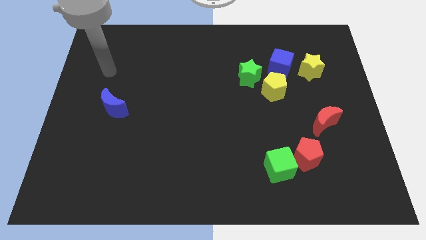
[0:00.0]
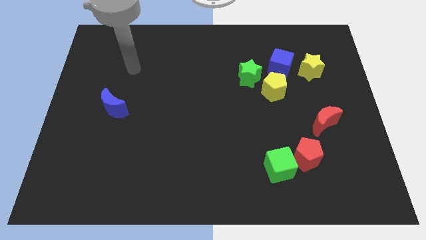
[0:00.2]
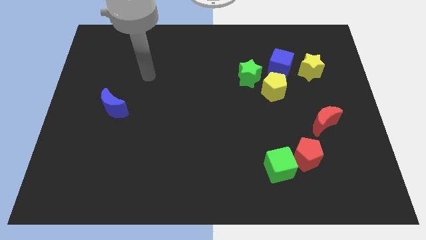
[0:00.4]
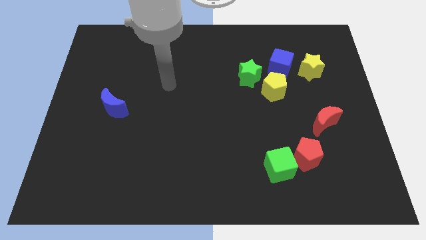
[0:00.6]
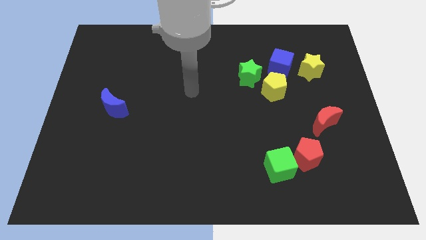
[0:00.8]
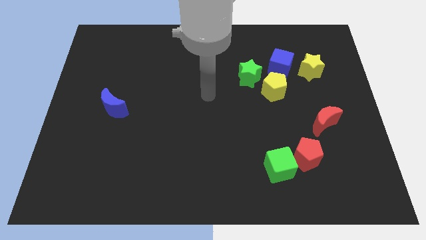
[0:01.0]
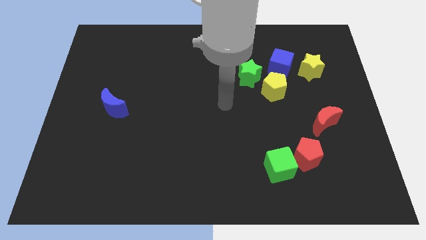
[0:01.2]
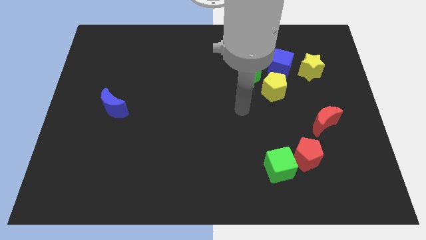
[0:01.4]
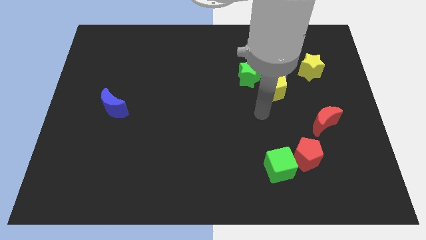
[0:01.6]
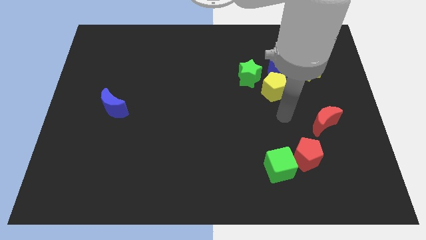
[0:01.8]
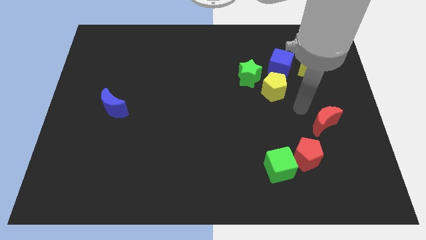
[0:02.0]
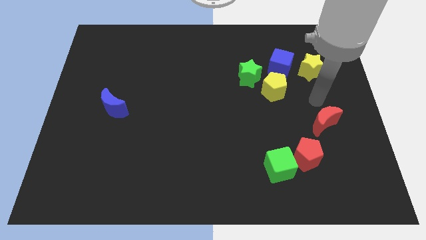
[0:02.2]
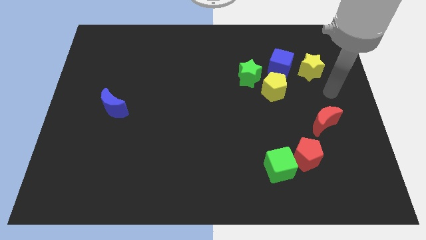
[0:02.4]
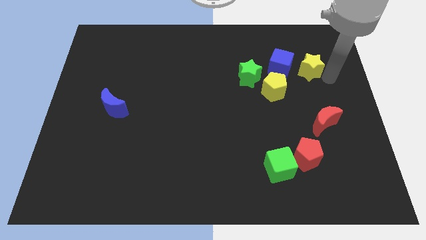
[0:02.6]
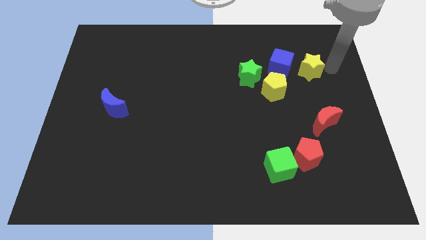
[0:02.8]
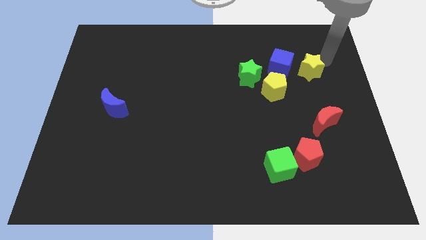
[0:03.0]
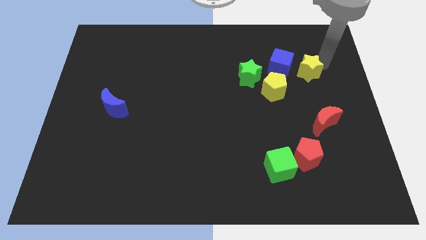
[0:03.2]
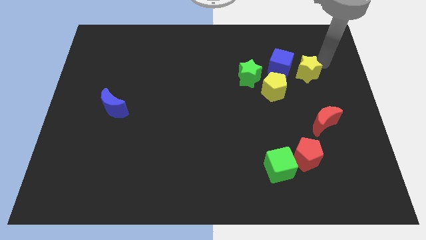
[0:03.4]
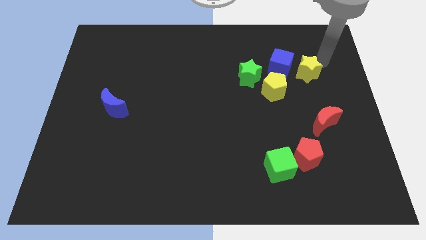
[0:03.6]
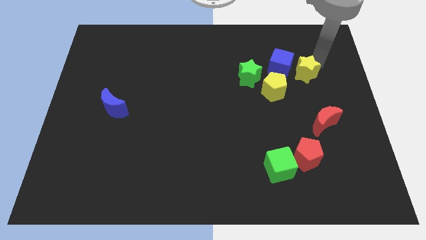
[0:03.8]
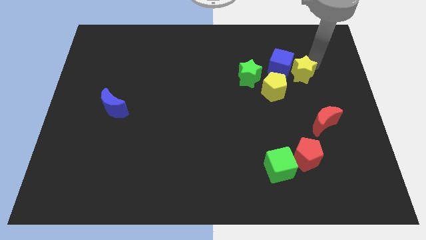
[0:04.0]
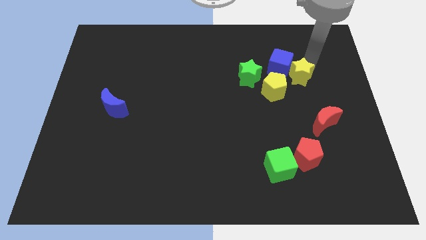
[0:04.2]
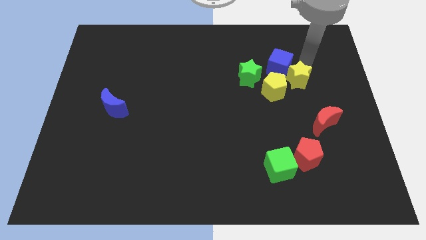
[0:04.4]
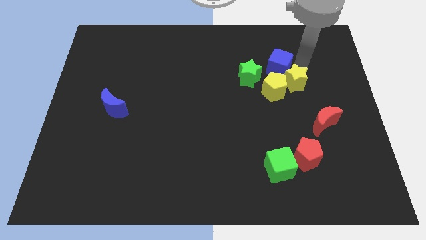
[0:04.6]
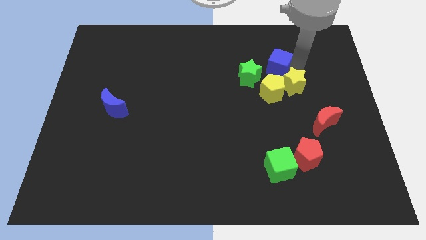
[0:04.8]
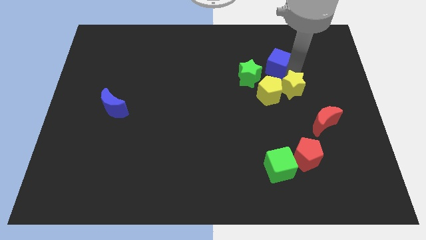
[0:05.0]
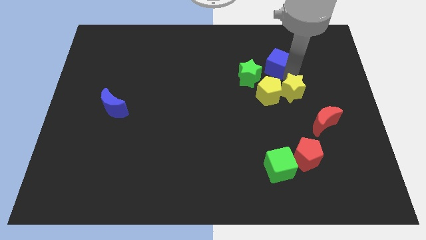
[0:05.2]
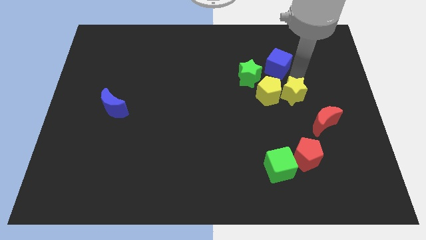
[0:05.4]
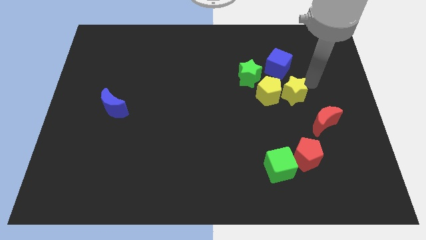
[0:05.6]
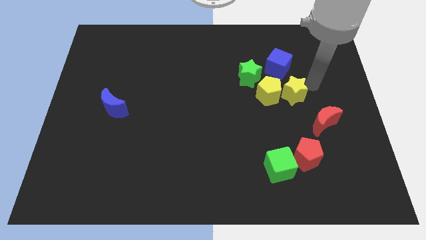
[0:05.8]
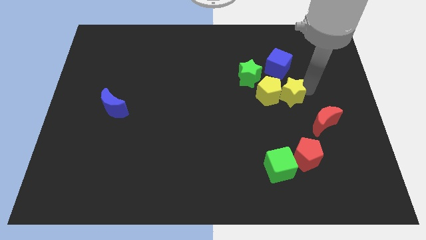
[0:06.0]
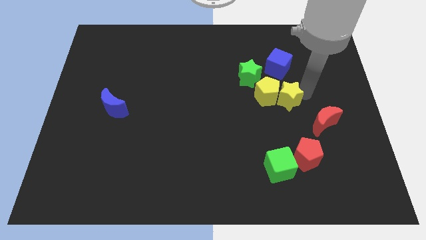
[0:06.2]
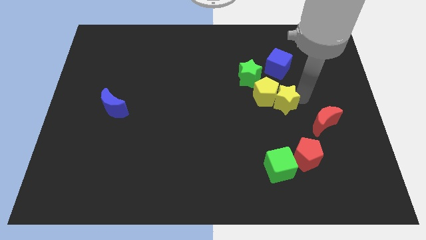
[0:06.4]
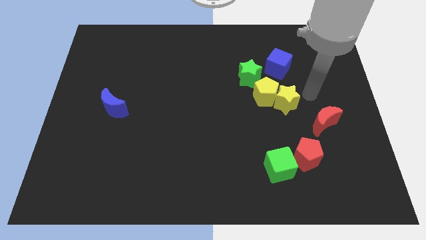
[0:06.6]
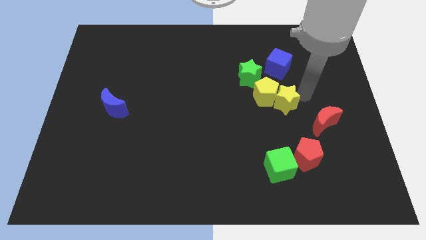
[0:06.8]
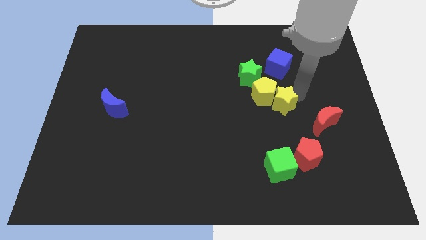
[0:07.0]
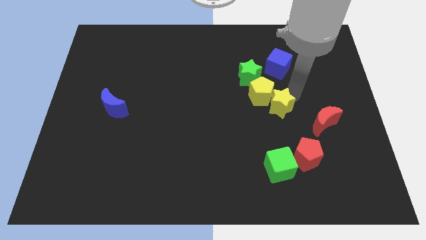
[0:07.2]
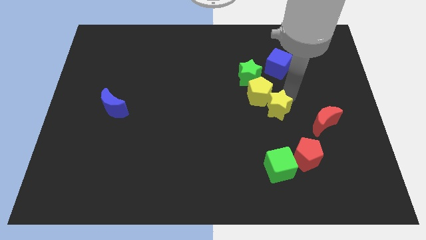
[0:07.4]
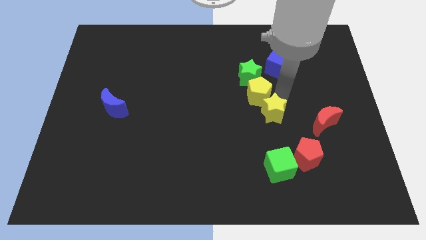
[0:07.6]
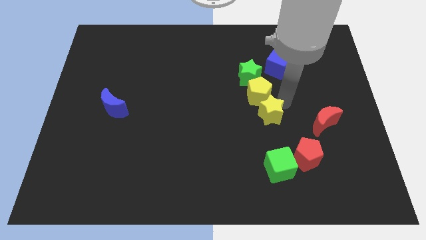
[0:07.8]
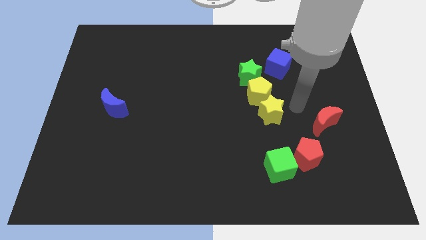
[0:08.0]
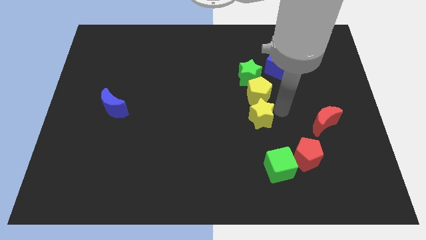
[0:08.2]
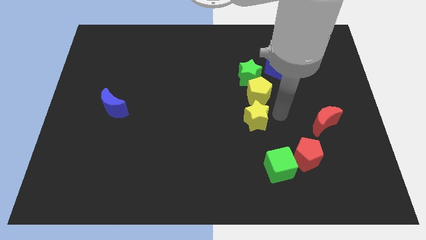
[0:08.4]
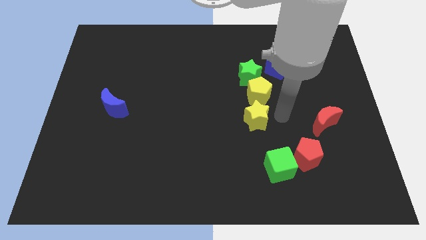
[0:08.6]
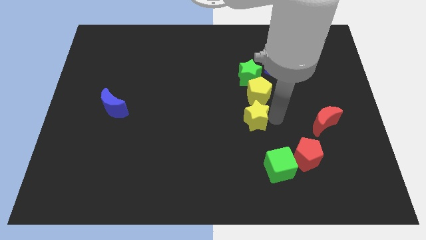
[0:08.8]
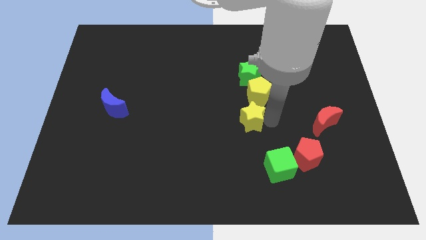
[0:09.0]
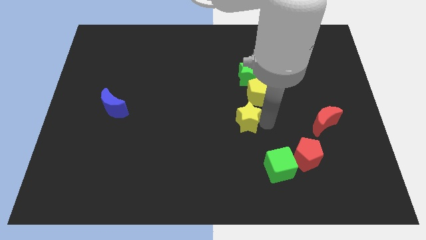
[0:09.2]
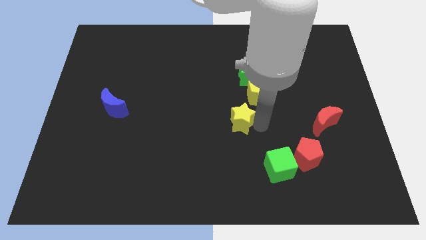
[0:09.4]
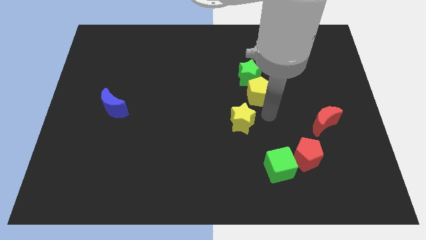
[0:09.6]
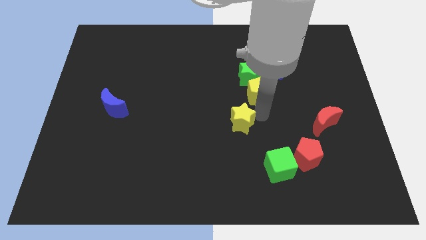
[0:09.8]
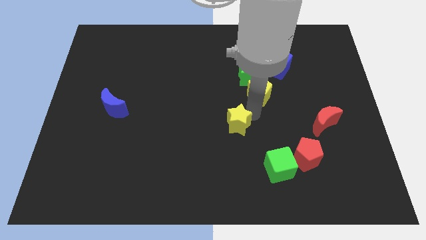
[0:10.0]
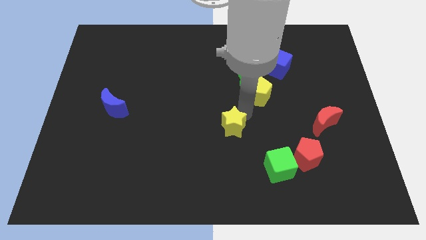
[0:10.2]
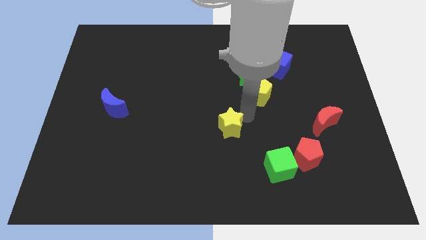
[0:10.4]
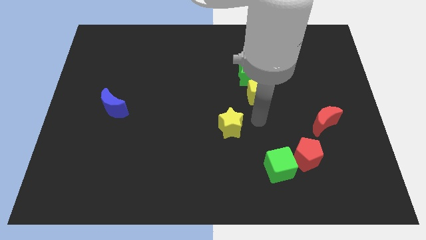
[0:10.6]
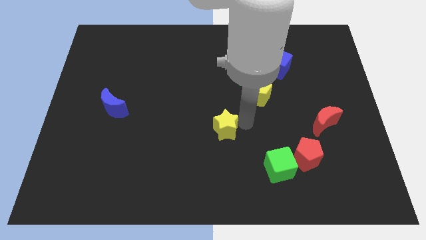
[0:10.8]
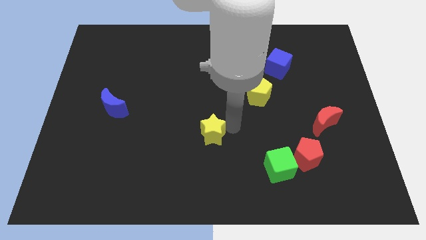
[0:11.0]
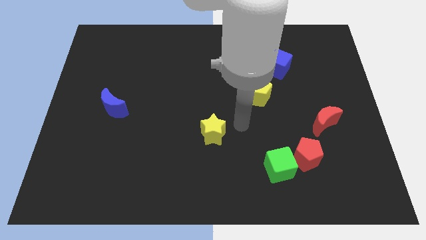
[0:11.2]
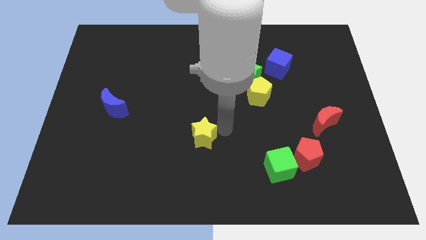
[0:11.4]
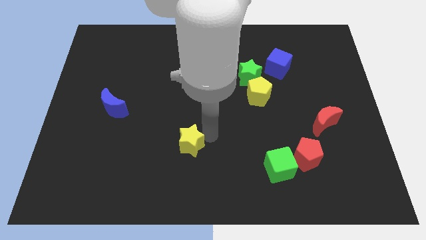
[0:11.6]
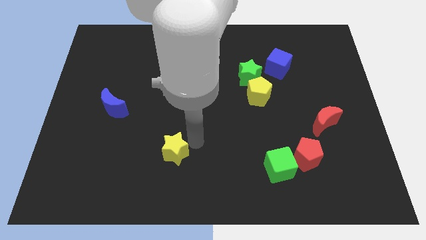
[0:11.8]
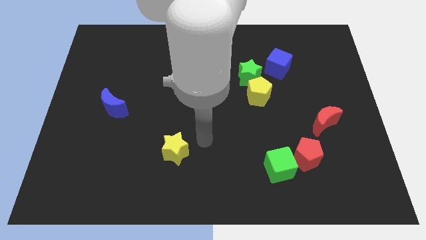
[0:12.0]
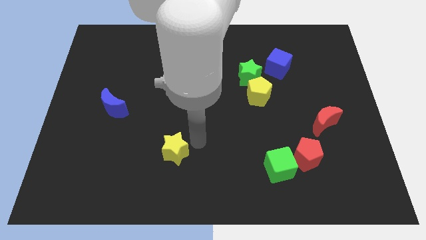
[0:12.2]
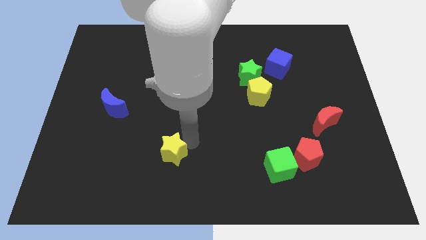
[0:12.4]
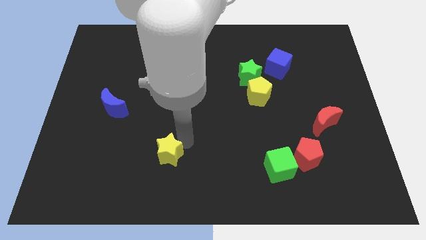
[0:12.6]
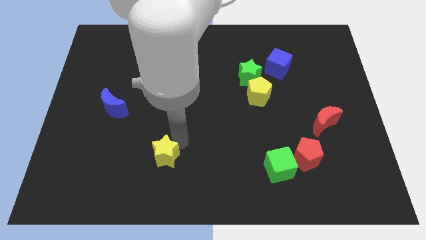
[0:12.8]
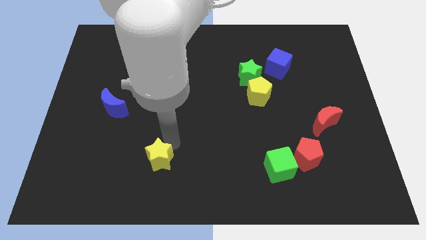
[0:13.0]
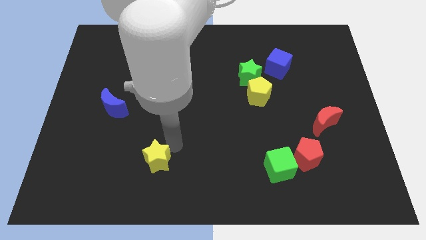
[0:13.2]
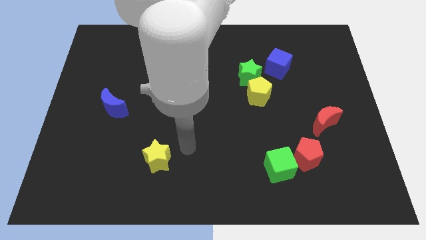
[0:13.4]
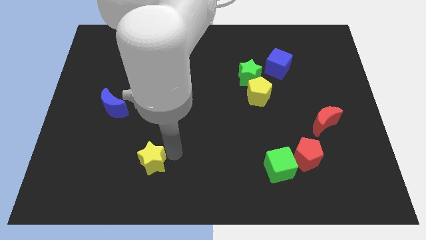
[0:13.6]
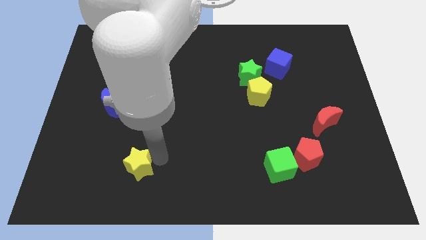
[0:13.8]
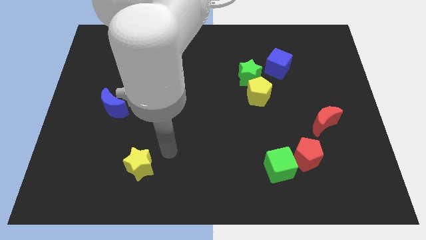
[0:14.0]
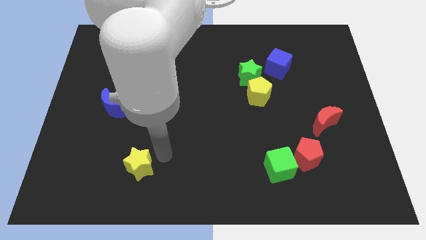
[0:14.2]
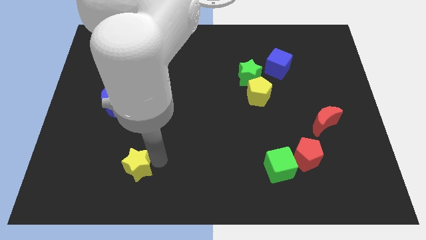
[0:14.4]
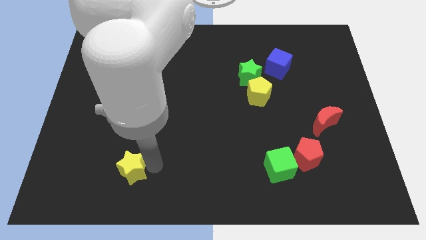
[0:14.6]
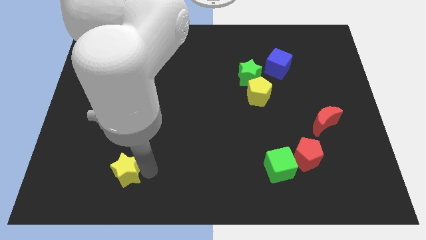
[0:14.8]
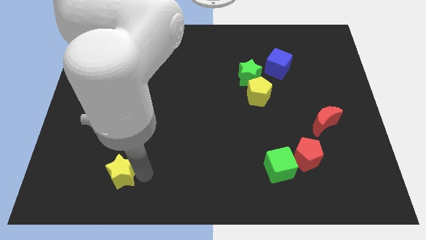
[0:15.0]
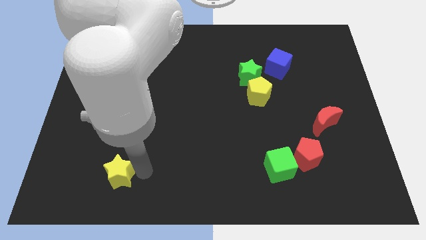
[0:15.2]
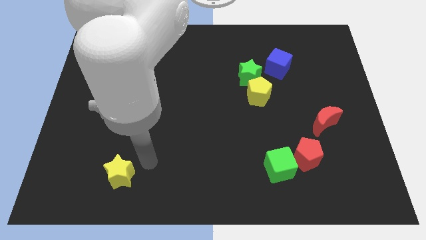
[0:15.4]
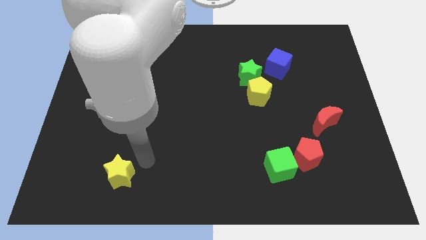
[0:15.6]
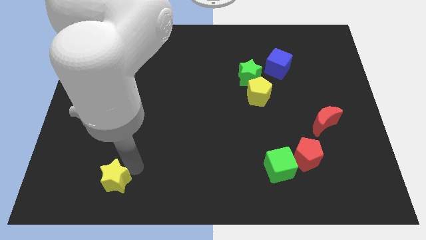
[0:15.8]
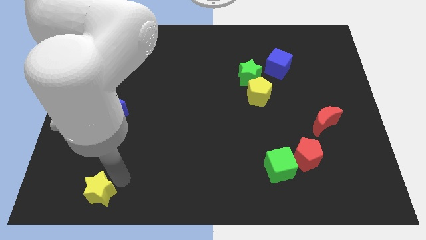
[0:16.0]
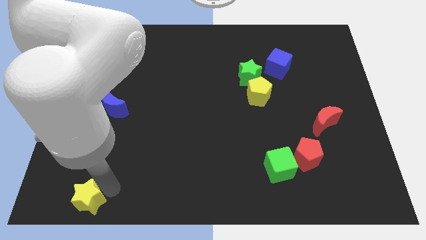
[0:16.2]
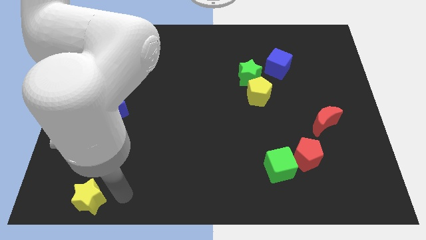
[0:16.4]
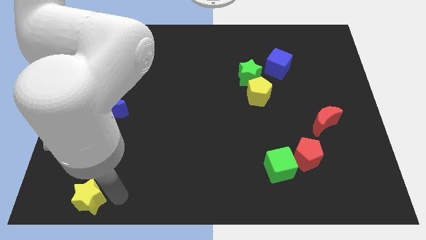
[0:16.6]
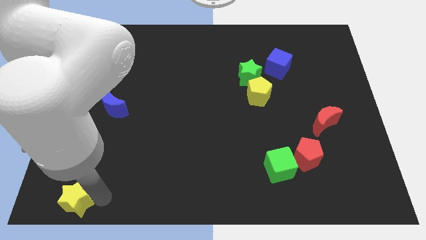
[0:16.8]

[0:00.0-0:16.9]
put the yellow star to the bottom left corner
